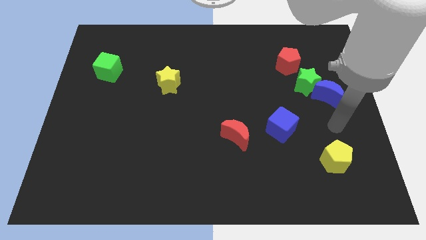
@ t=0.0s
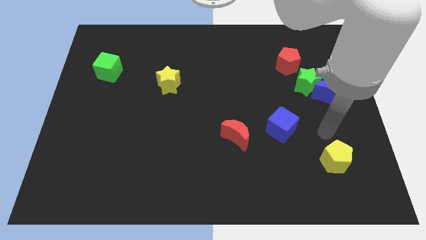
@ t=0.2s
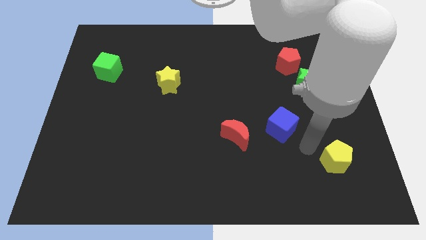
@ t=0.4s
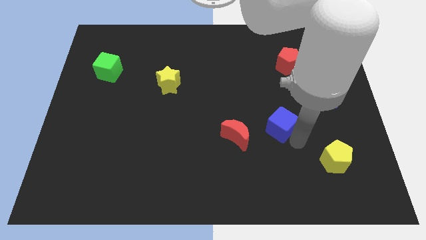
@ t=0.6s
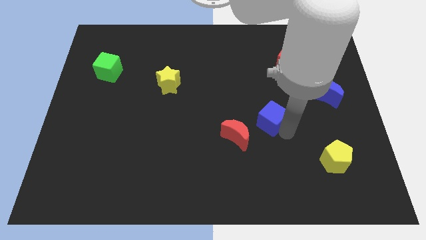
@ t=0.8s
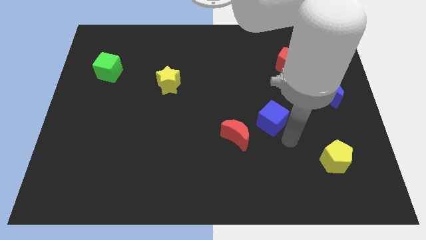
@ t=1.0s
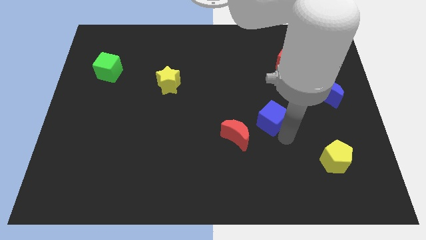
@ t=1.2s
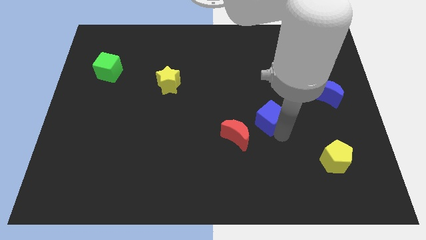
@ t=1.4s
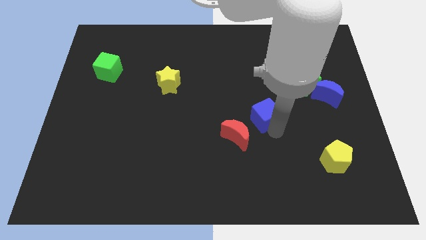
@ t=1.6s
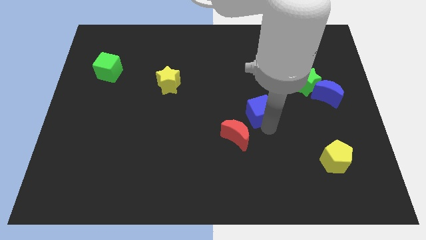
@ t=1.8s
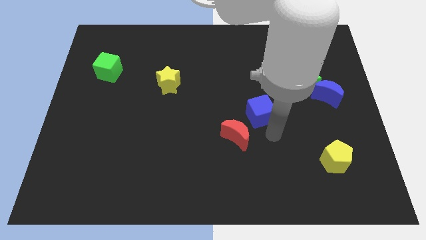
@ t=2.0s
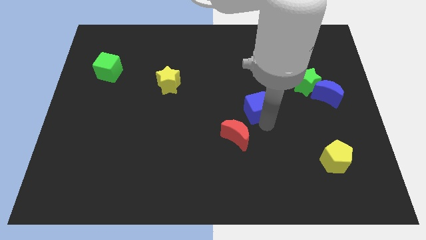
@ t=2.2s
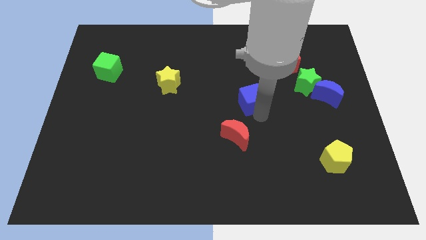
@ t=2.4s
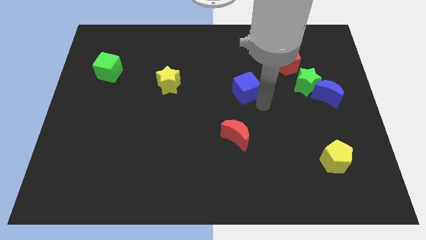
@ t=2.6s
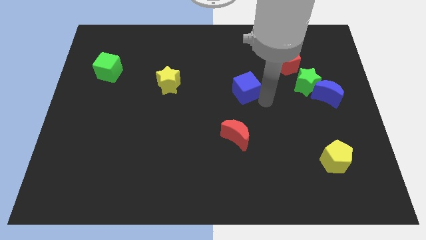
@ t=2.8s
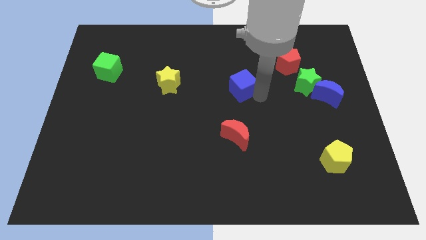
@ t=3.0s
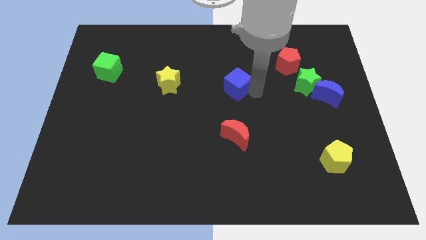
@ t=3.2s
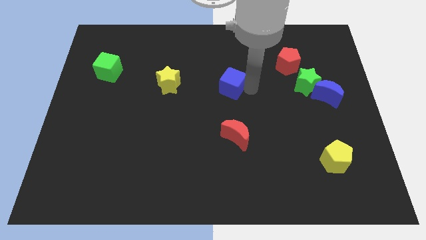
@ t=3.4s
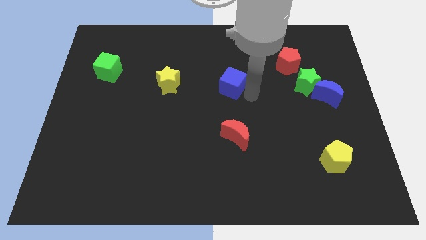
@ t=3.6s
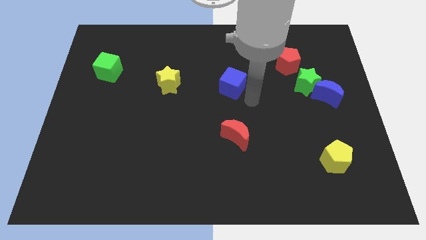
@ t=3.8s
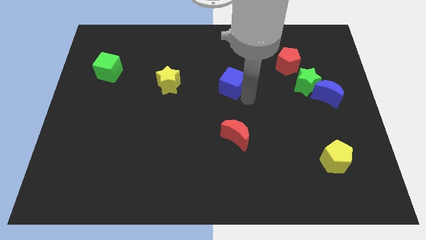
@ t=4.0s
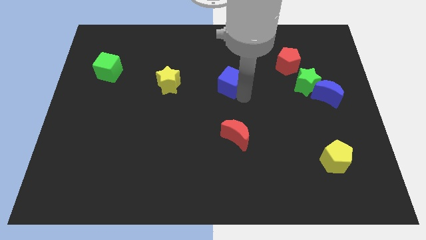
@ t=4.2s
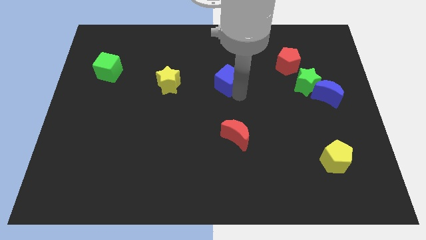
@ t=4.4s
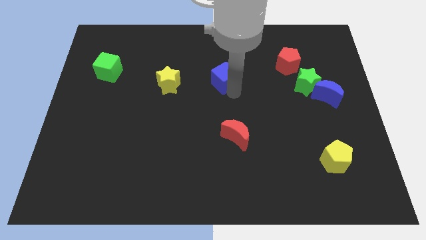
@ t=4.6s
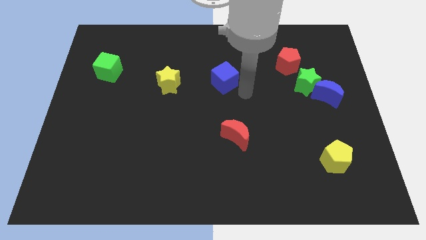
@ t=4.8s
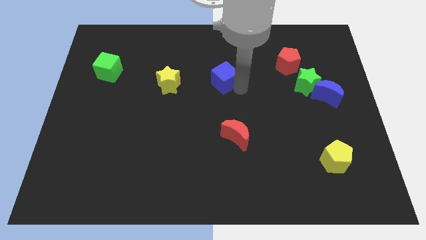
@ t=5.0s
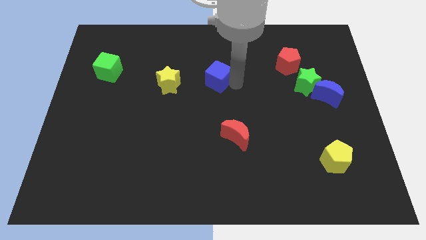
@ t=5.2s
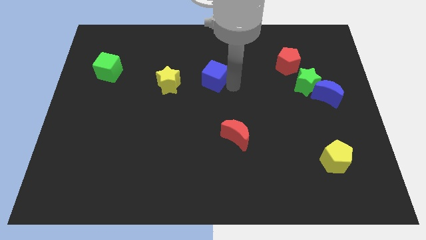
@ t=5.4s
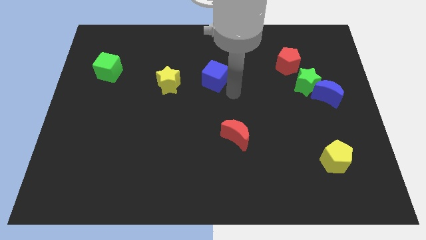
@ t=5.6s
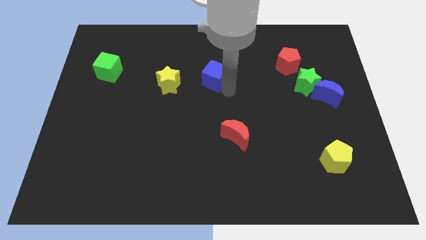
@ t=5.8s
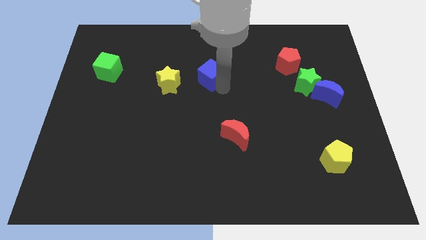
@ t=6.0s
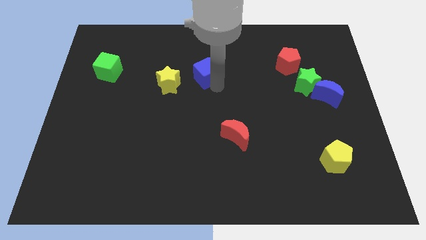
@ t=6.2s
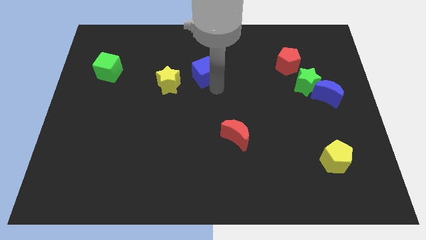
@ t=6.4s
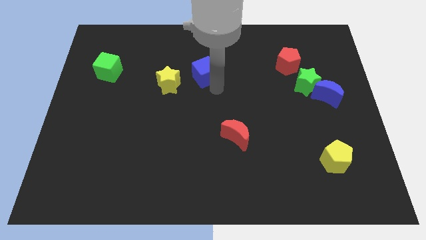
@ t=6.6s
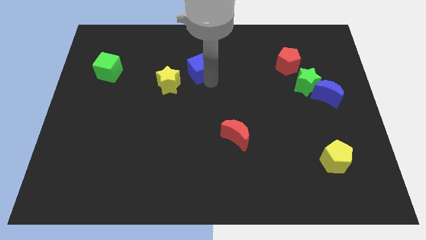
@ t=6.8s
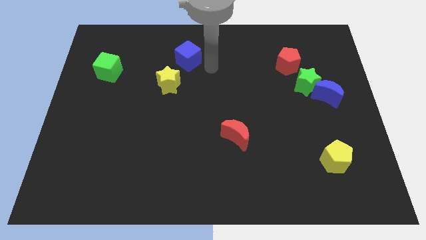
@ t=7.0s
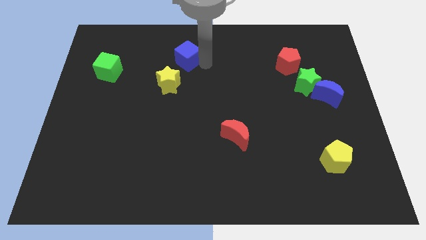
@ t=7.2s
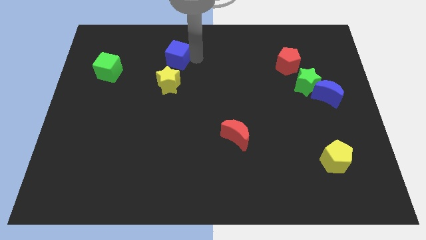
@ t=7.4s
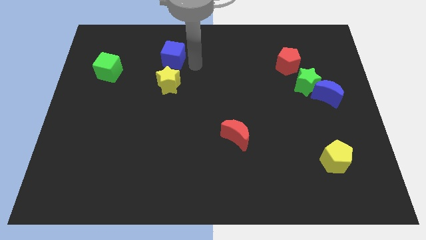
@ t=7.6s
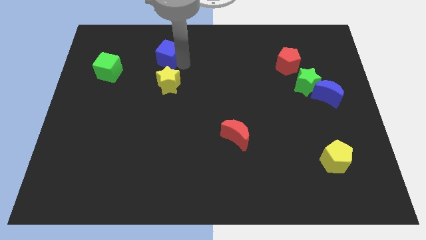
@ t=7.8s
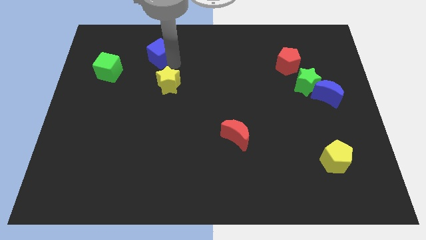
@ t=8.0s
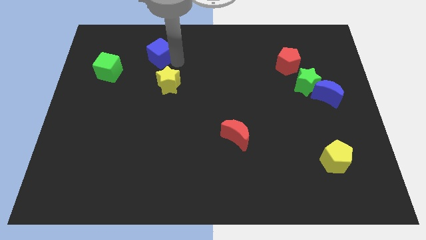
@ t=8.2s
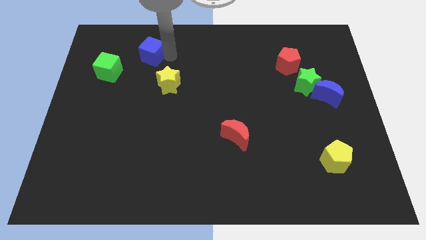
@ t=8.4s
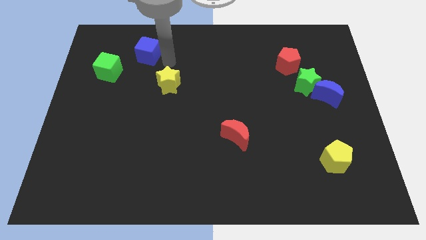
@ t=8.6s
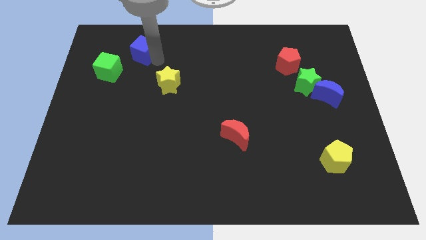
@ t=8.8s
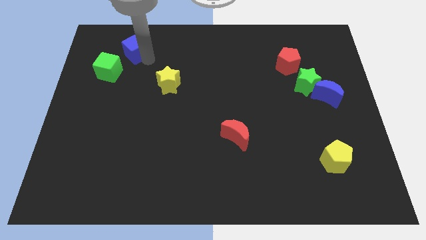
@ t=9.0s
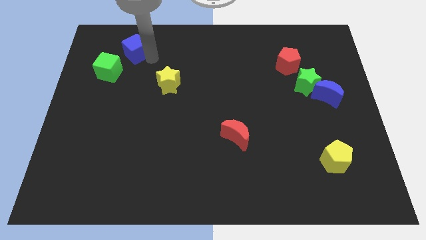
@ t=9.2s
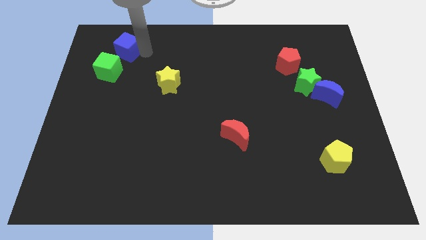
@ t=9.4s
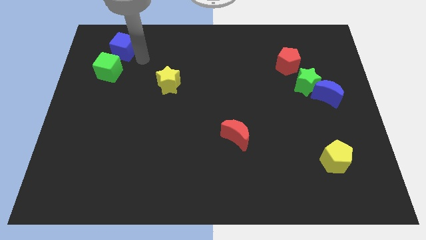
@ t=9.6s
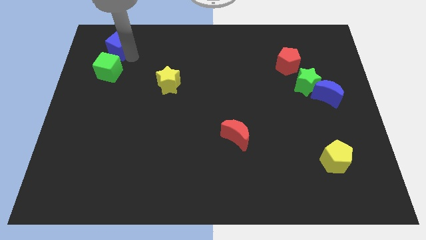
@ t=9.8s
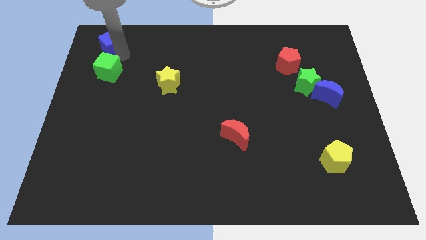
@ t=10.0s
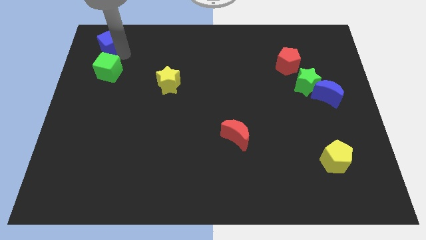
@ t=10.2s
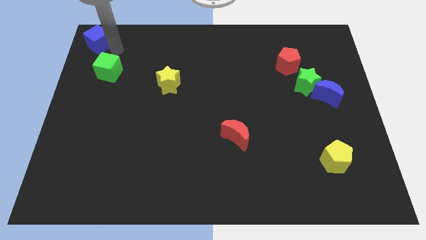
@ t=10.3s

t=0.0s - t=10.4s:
put the blue cube to the top left of the board

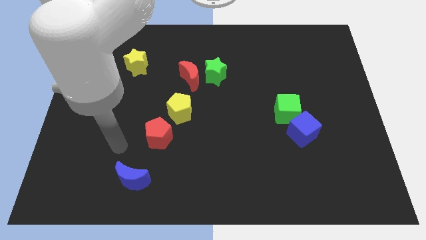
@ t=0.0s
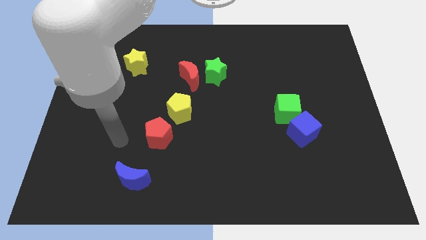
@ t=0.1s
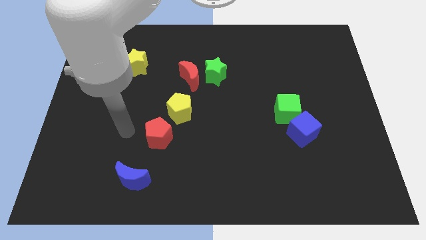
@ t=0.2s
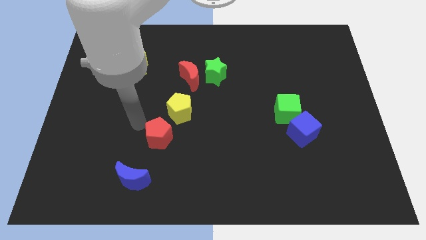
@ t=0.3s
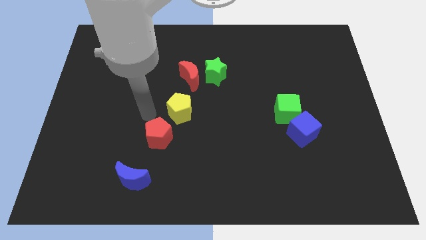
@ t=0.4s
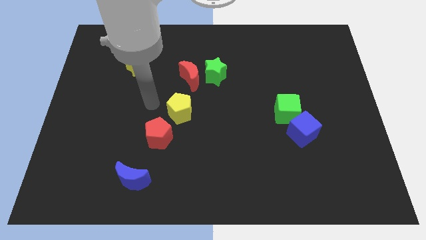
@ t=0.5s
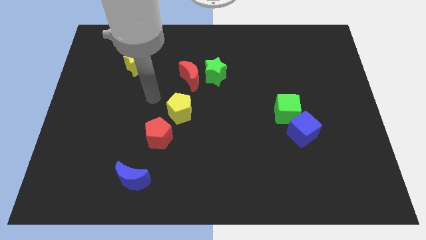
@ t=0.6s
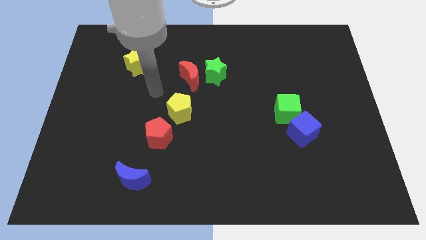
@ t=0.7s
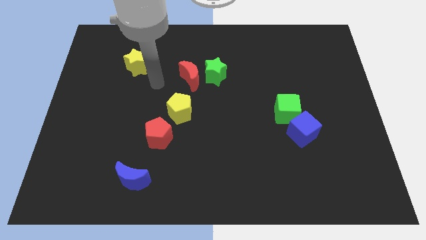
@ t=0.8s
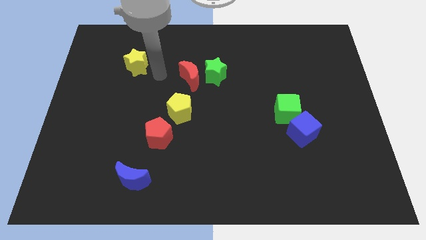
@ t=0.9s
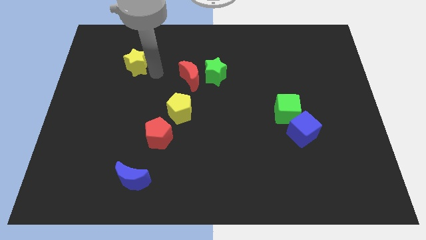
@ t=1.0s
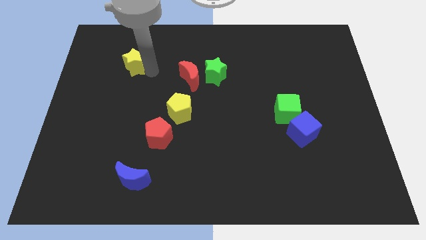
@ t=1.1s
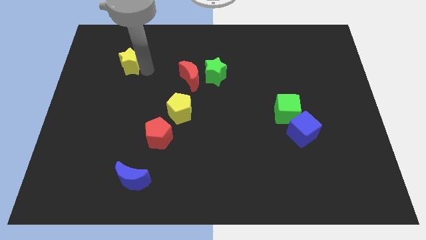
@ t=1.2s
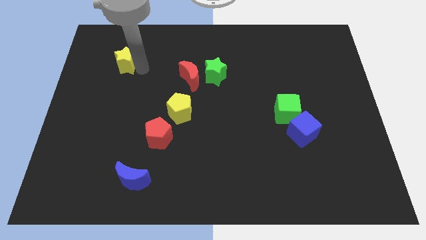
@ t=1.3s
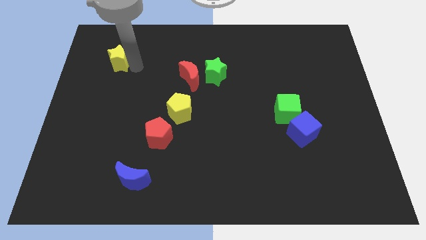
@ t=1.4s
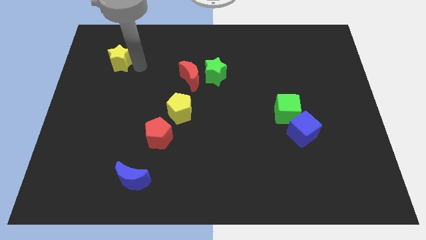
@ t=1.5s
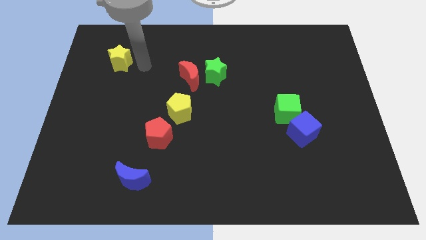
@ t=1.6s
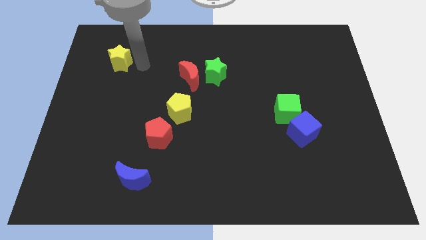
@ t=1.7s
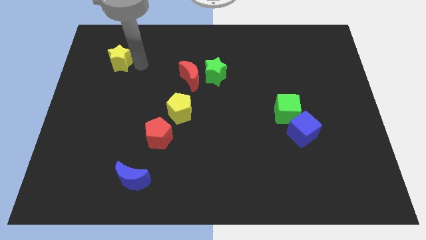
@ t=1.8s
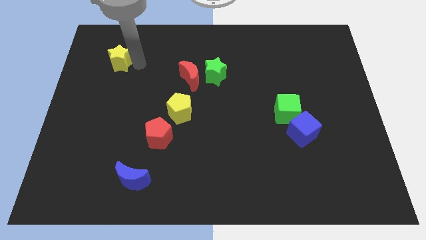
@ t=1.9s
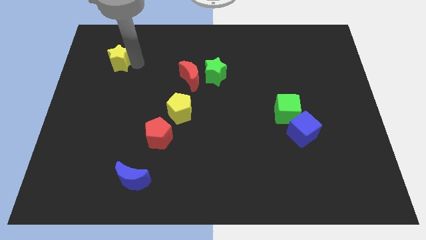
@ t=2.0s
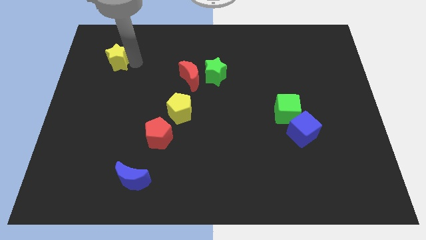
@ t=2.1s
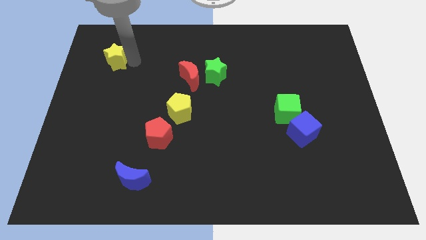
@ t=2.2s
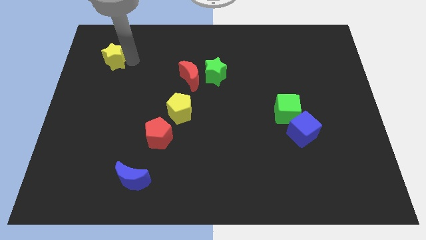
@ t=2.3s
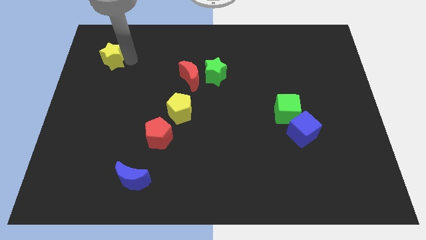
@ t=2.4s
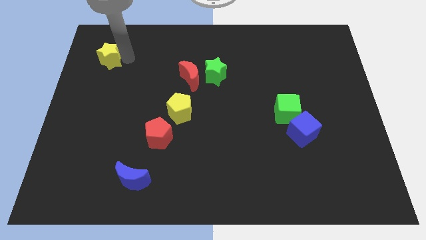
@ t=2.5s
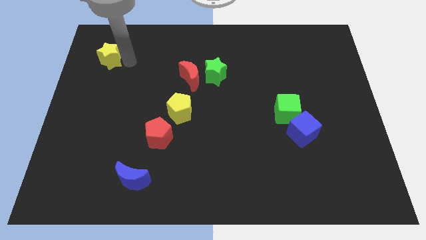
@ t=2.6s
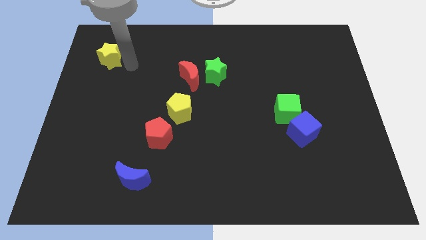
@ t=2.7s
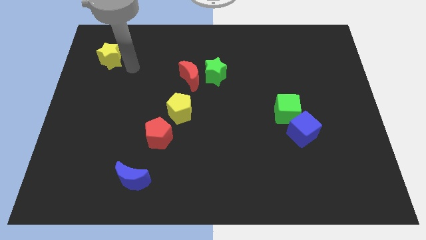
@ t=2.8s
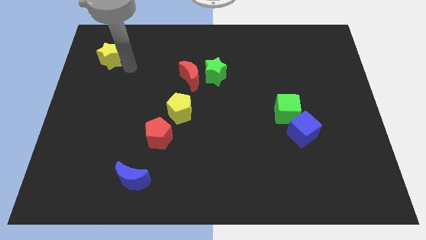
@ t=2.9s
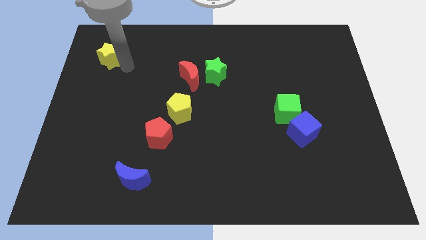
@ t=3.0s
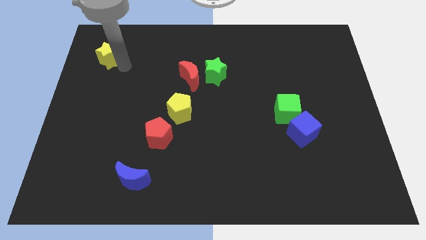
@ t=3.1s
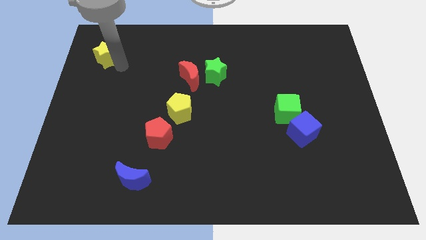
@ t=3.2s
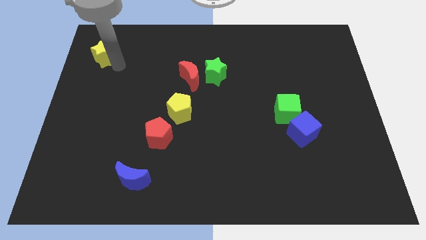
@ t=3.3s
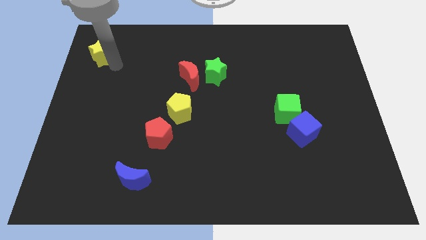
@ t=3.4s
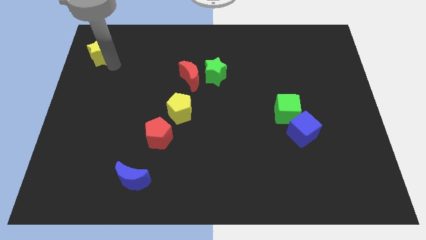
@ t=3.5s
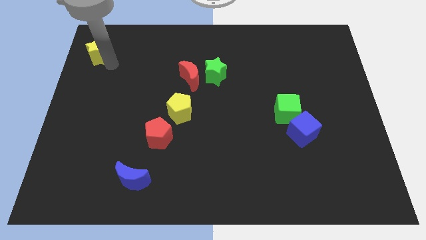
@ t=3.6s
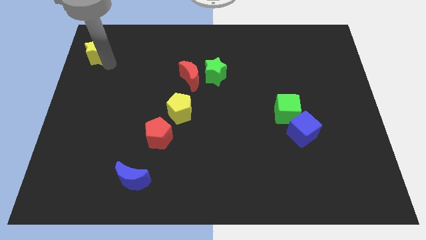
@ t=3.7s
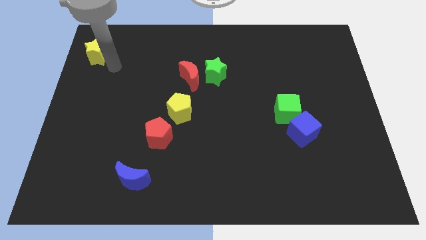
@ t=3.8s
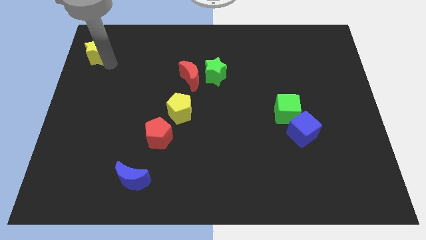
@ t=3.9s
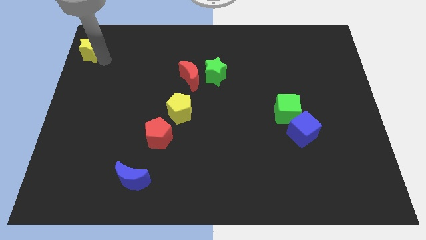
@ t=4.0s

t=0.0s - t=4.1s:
slide the yellow star to the upper left corner
